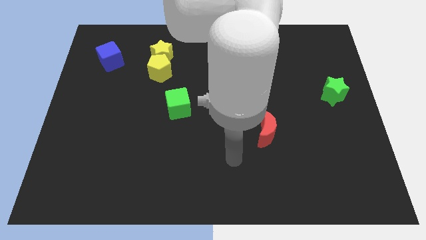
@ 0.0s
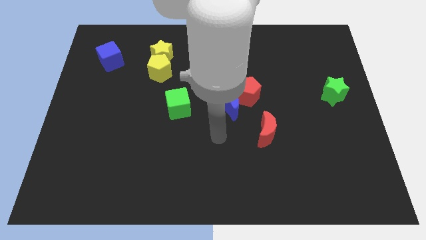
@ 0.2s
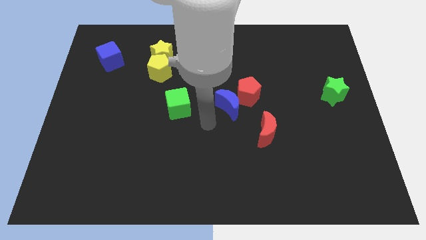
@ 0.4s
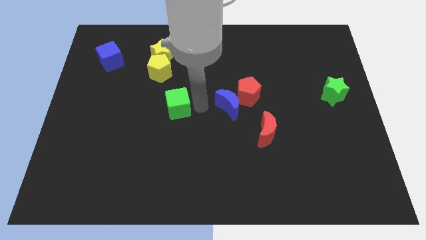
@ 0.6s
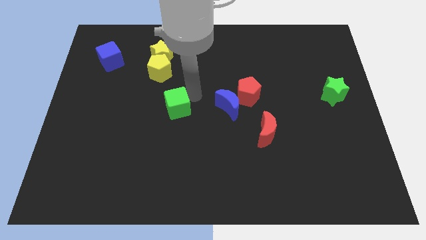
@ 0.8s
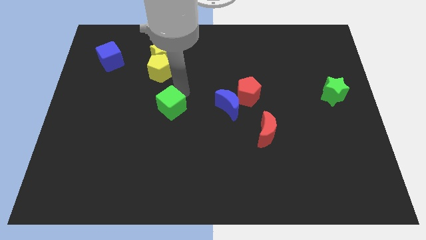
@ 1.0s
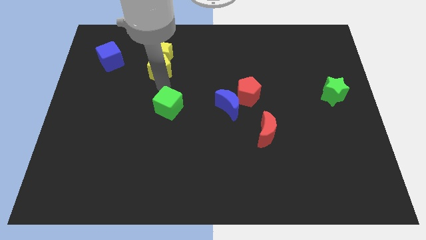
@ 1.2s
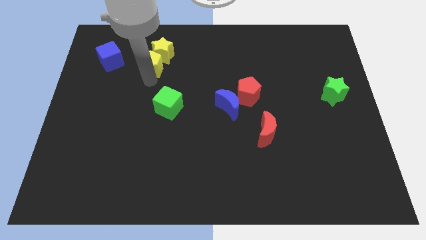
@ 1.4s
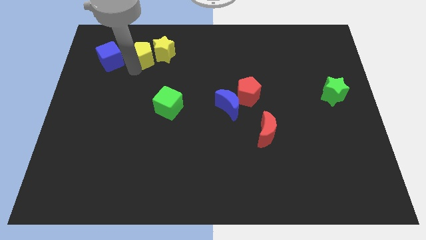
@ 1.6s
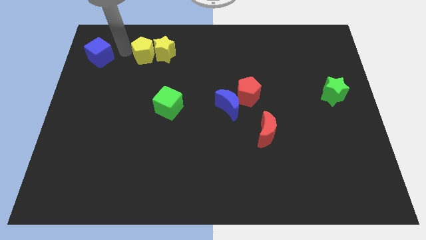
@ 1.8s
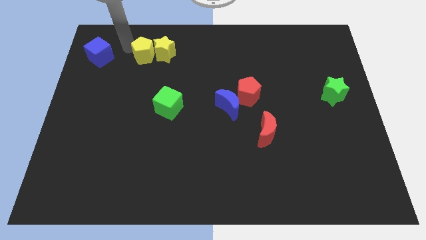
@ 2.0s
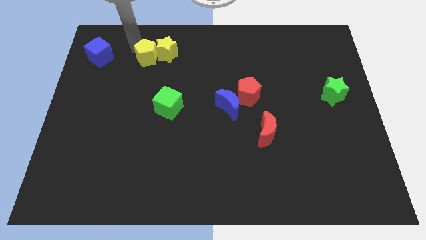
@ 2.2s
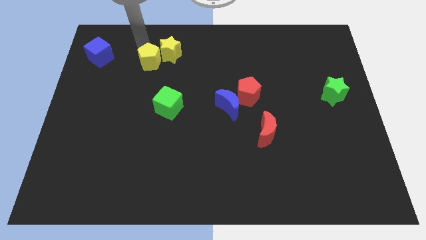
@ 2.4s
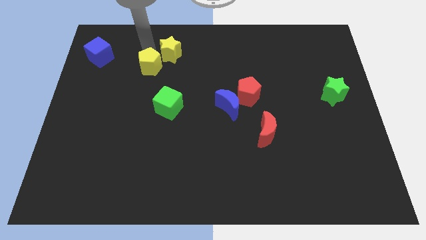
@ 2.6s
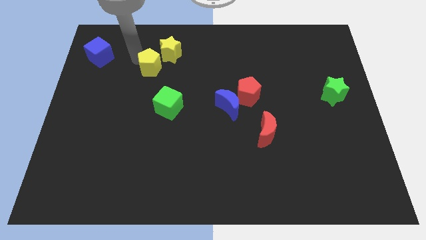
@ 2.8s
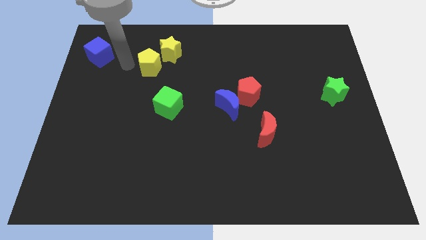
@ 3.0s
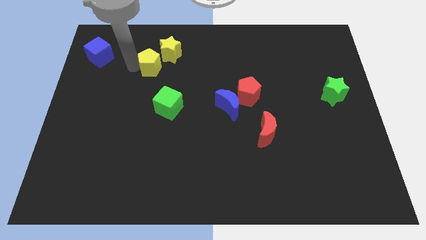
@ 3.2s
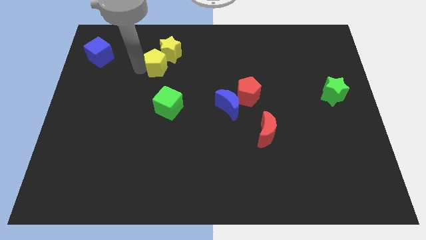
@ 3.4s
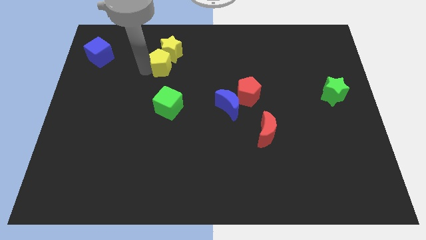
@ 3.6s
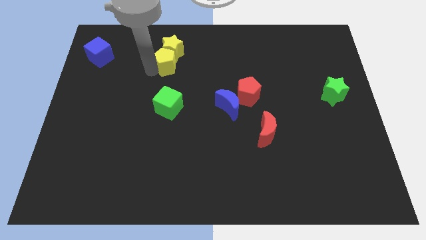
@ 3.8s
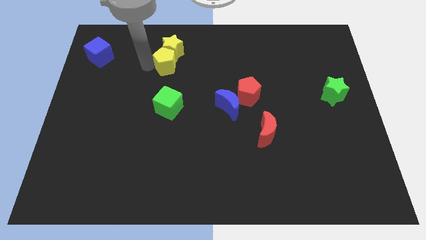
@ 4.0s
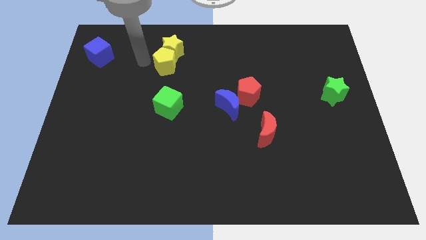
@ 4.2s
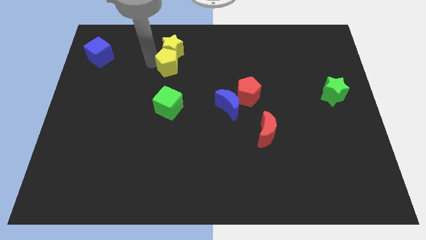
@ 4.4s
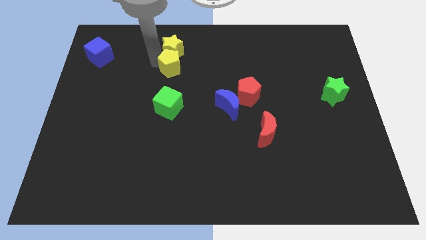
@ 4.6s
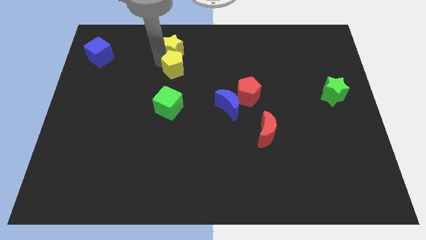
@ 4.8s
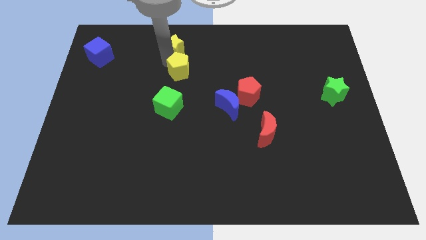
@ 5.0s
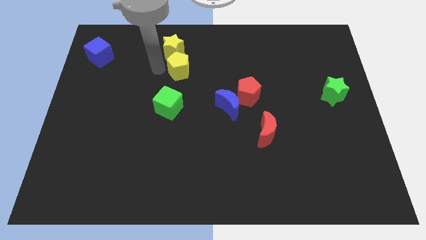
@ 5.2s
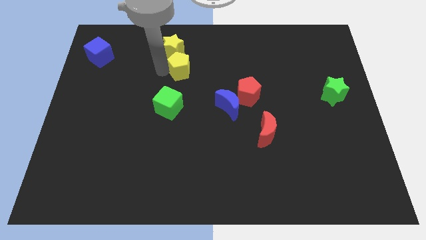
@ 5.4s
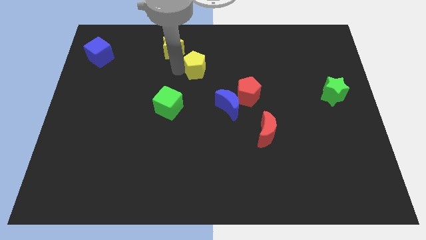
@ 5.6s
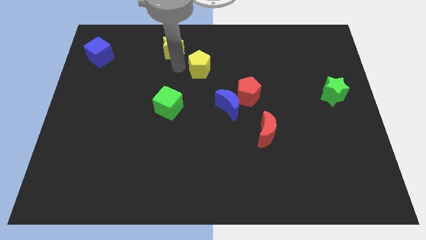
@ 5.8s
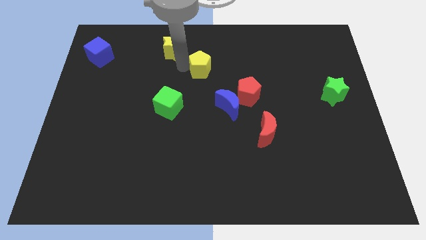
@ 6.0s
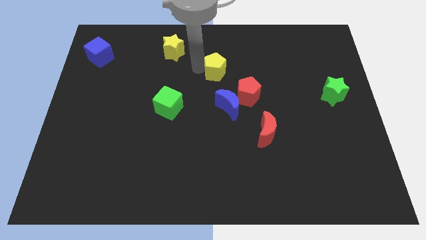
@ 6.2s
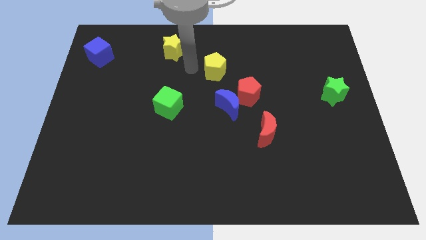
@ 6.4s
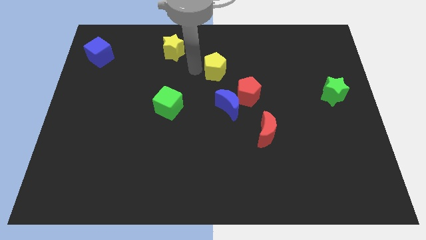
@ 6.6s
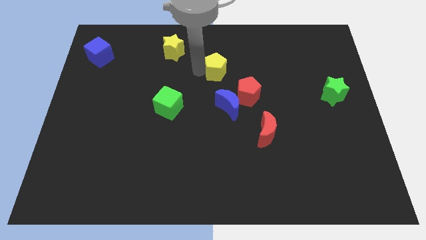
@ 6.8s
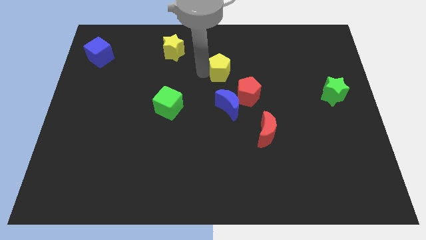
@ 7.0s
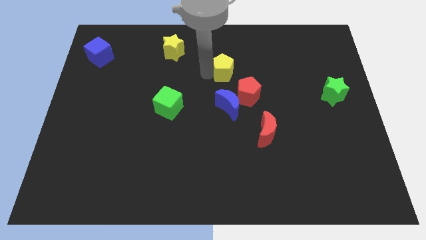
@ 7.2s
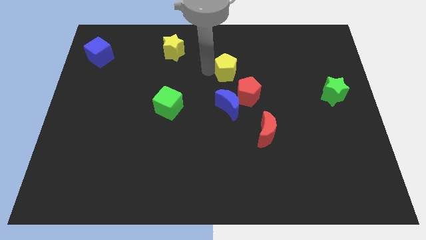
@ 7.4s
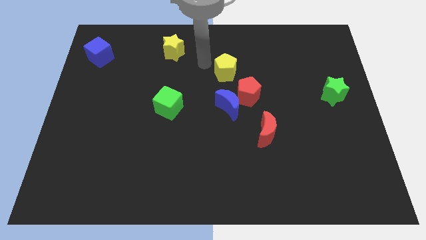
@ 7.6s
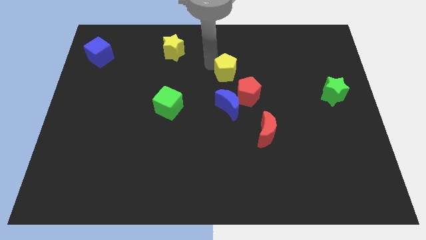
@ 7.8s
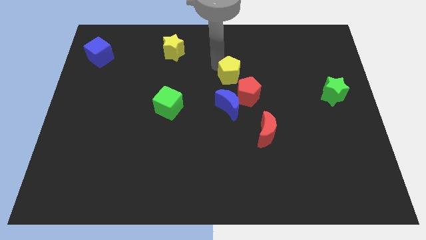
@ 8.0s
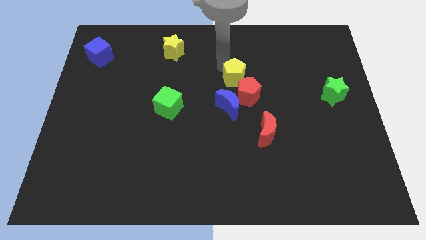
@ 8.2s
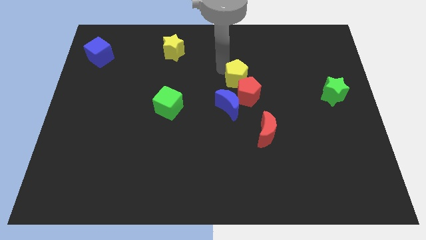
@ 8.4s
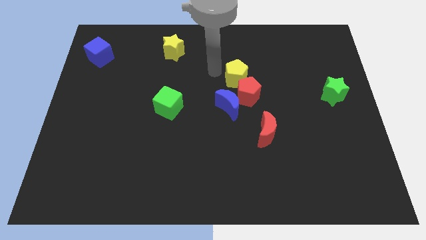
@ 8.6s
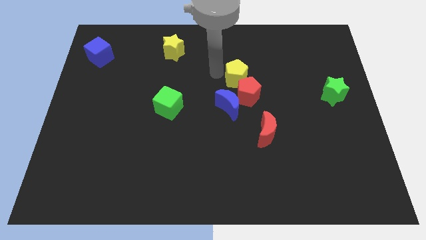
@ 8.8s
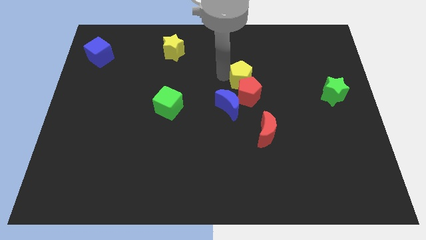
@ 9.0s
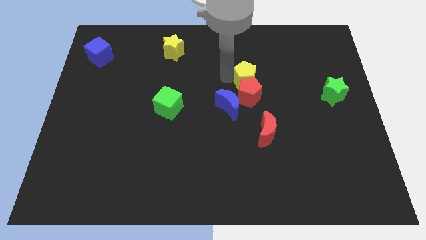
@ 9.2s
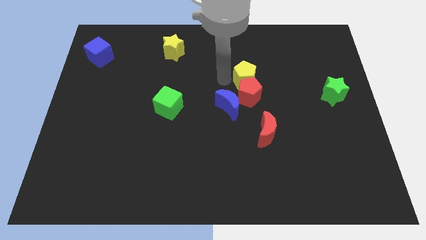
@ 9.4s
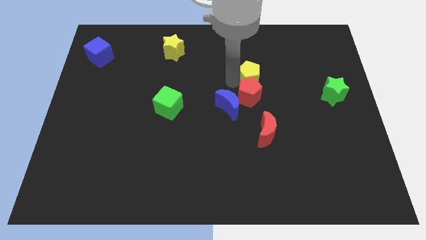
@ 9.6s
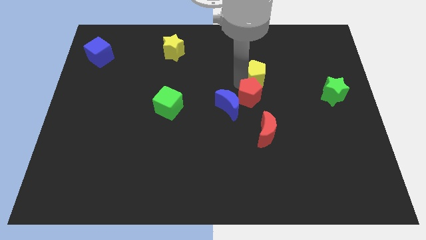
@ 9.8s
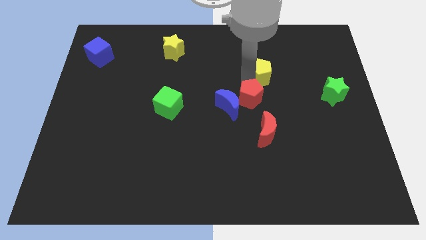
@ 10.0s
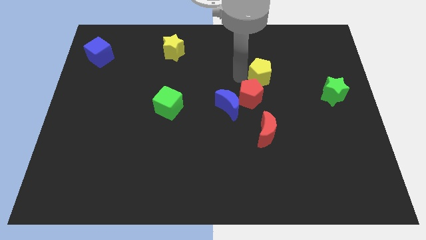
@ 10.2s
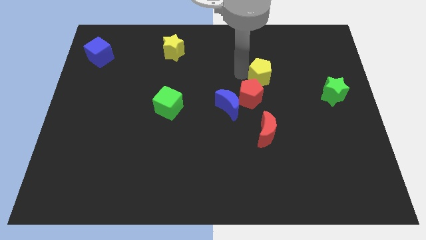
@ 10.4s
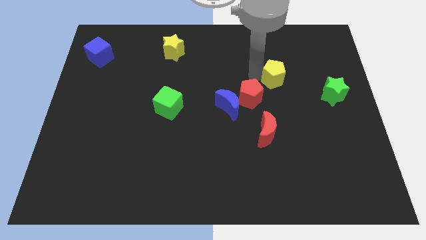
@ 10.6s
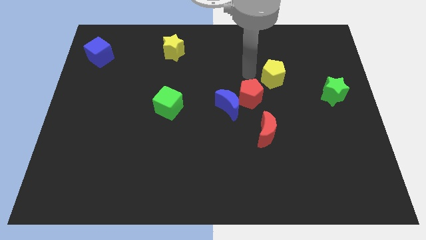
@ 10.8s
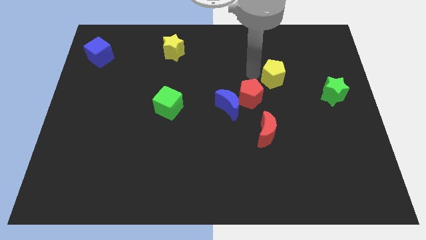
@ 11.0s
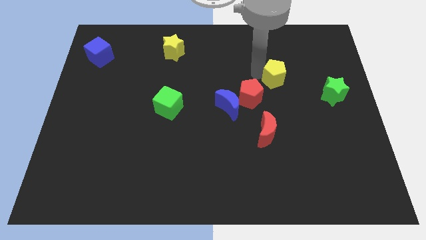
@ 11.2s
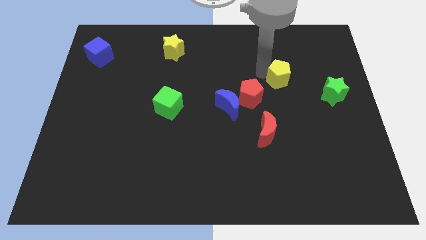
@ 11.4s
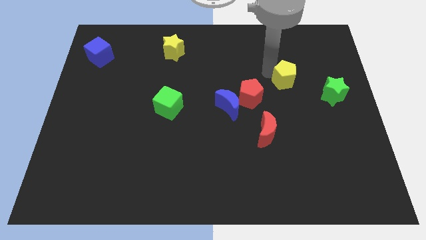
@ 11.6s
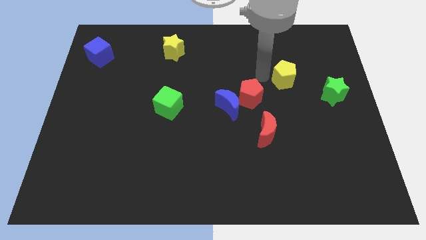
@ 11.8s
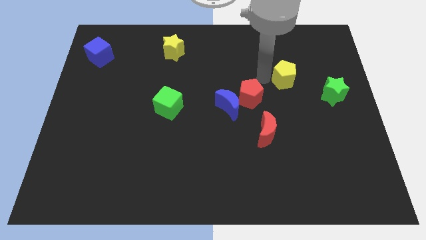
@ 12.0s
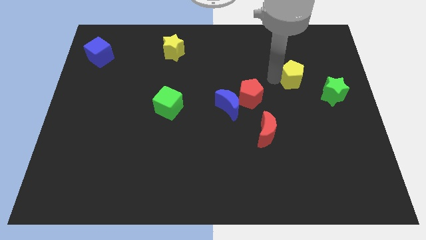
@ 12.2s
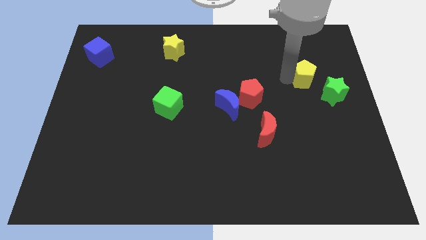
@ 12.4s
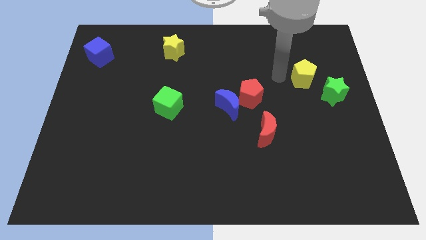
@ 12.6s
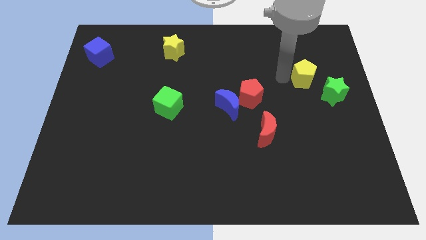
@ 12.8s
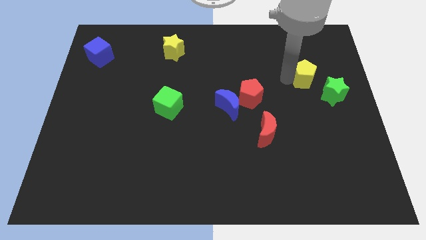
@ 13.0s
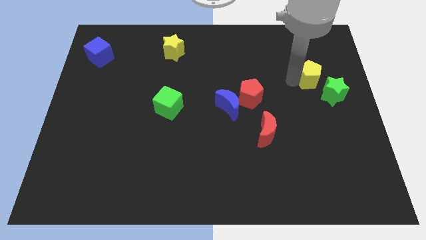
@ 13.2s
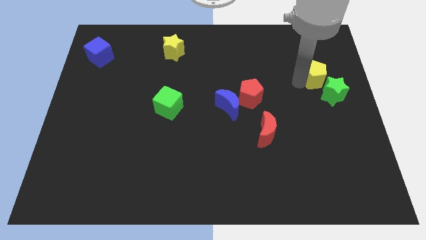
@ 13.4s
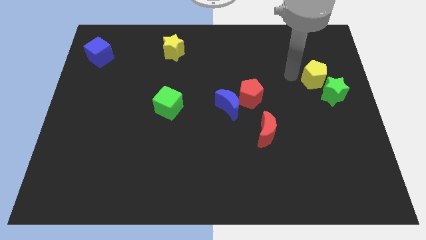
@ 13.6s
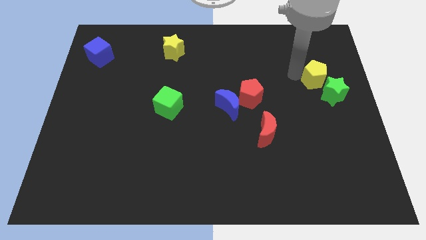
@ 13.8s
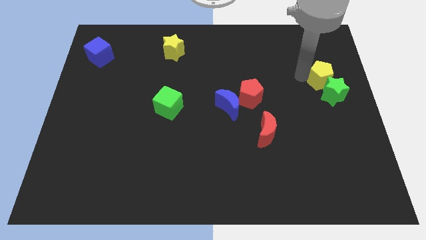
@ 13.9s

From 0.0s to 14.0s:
move the yellow pentagon to the right side of the board

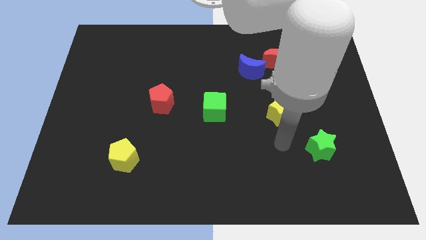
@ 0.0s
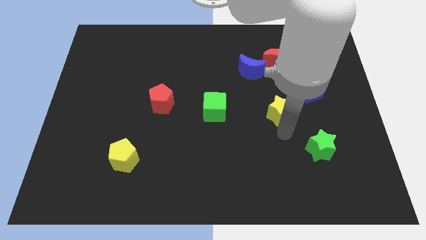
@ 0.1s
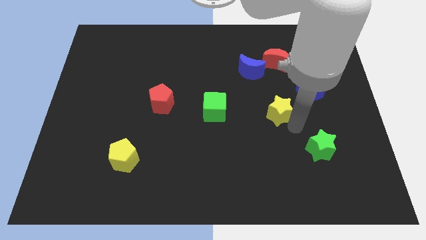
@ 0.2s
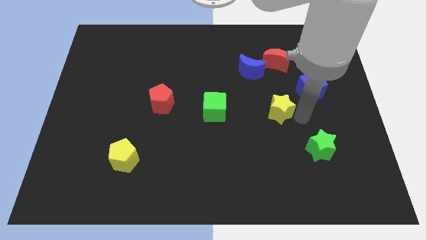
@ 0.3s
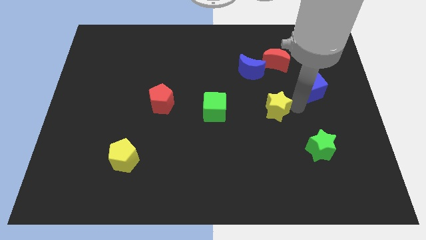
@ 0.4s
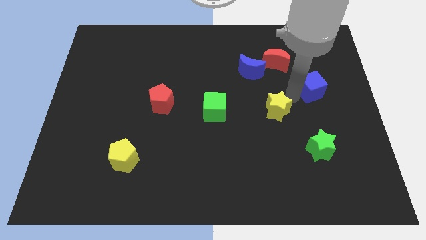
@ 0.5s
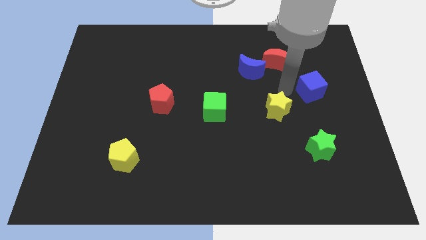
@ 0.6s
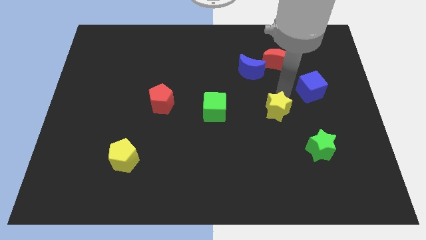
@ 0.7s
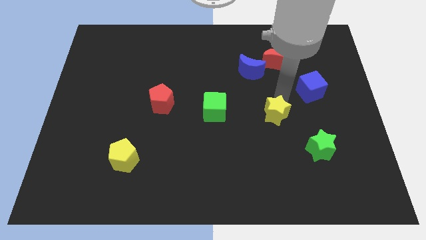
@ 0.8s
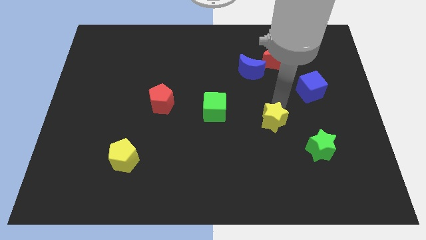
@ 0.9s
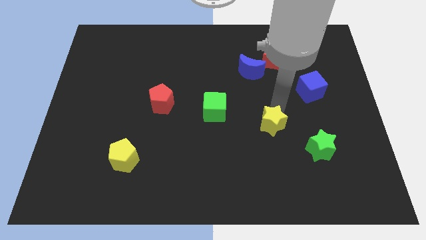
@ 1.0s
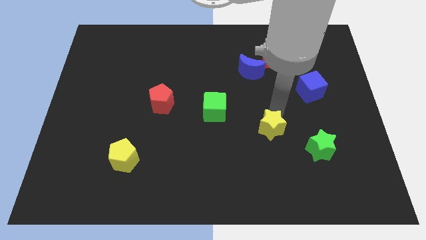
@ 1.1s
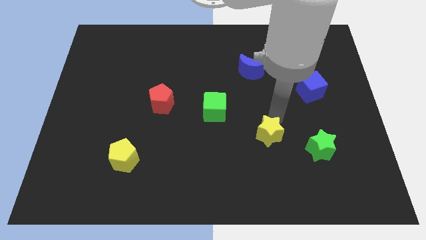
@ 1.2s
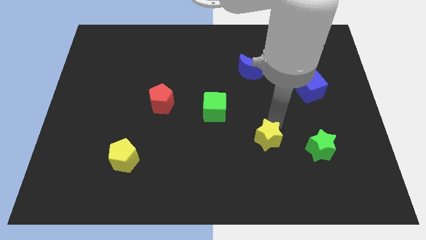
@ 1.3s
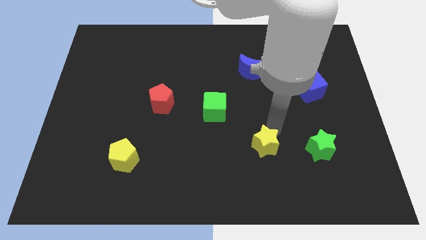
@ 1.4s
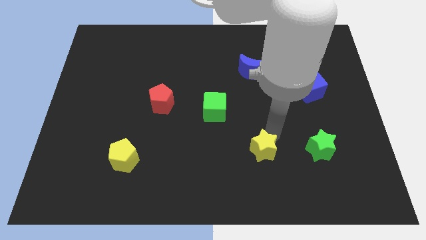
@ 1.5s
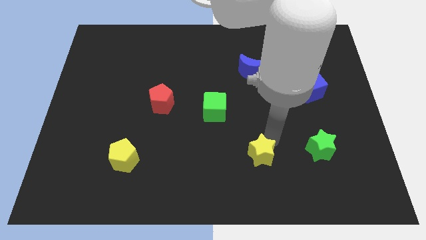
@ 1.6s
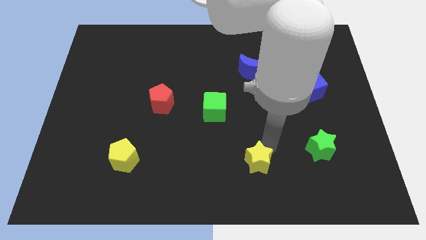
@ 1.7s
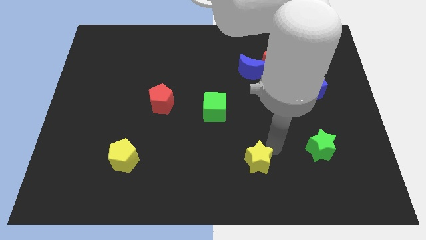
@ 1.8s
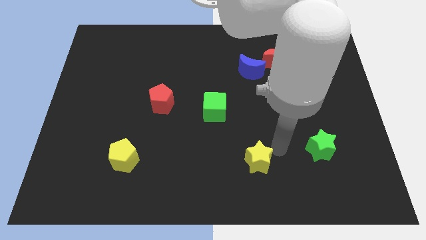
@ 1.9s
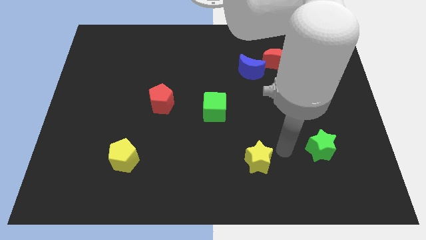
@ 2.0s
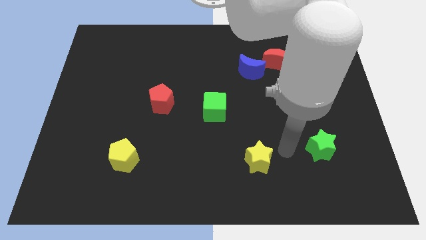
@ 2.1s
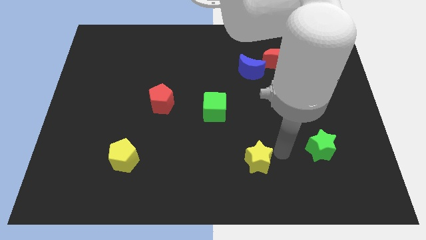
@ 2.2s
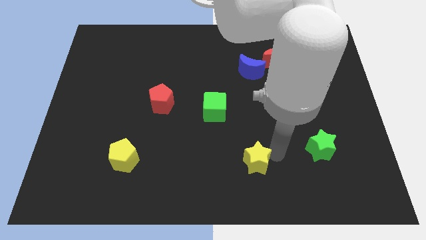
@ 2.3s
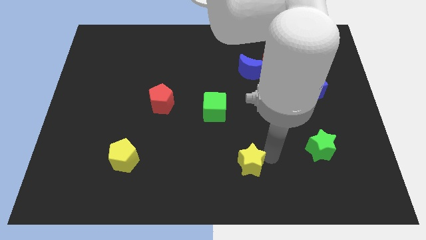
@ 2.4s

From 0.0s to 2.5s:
move the yellow star to the bottom
